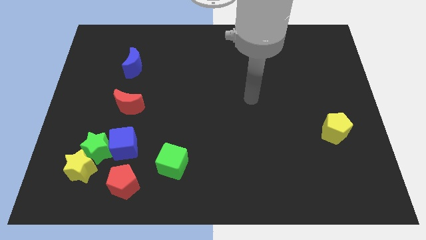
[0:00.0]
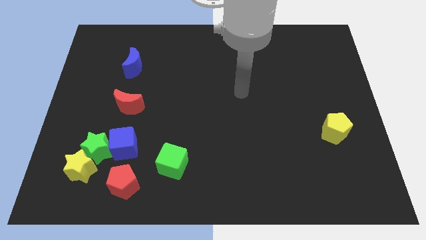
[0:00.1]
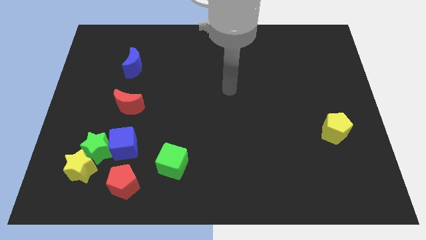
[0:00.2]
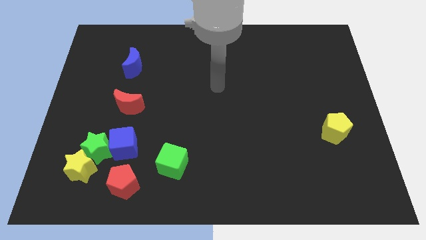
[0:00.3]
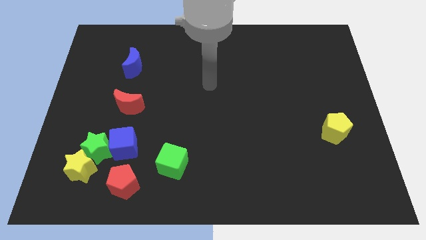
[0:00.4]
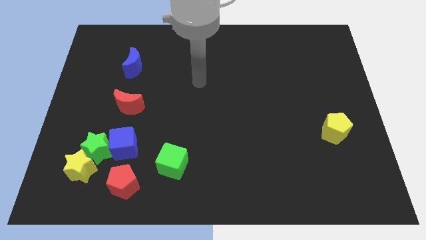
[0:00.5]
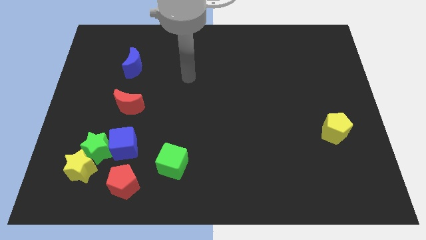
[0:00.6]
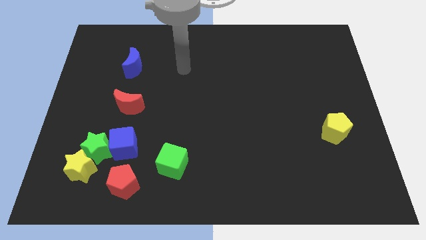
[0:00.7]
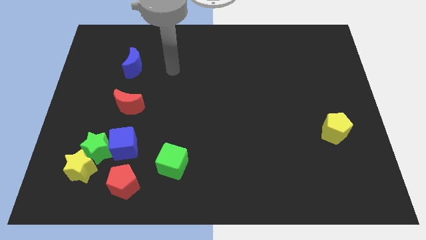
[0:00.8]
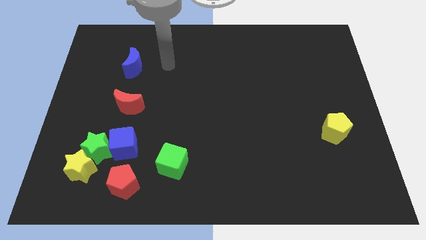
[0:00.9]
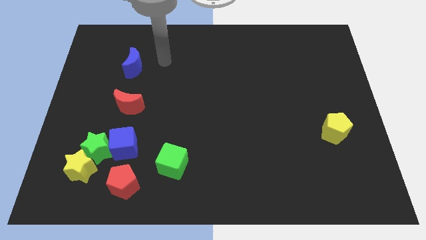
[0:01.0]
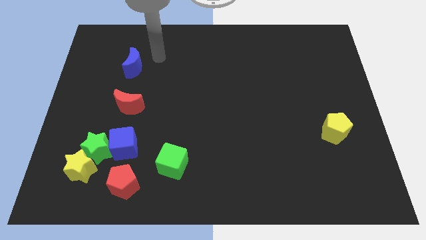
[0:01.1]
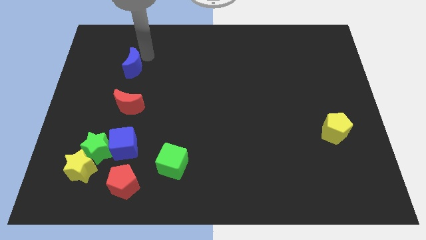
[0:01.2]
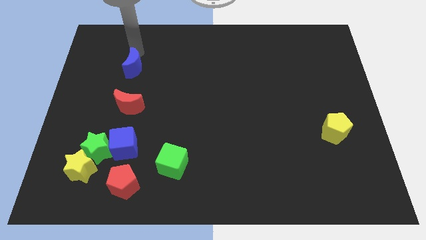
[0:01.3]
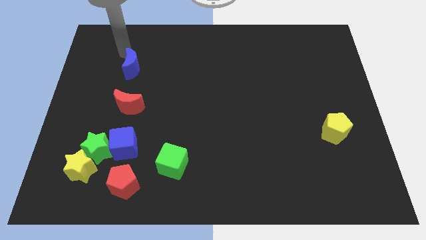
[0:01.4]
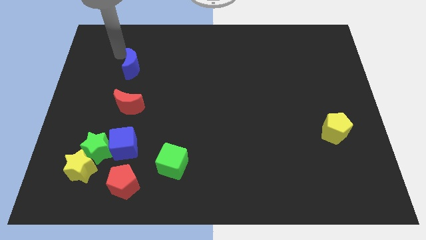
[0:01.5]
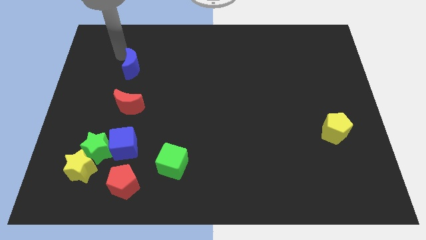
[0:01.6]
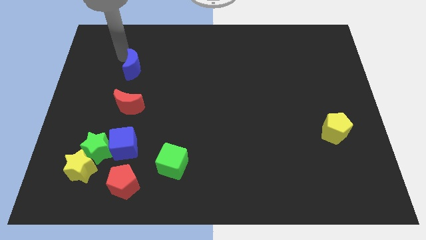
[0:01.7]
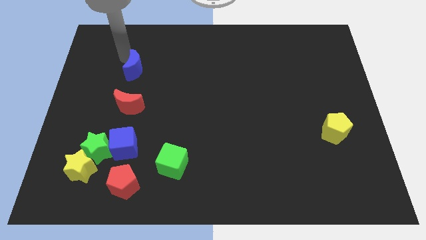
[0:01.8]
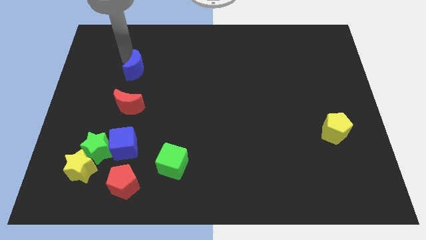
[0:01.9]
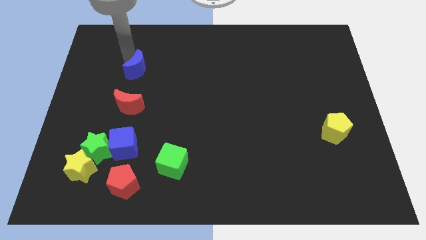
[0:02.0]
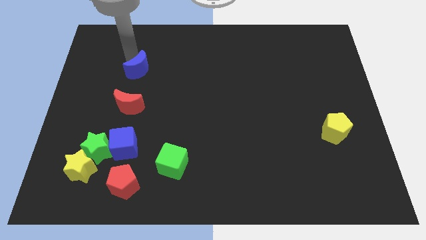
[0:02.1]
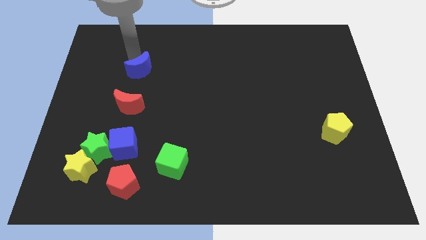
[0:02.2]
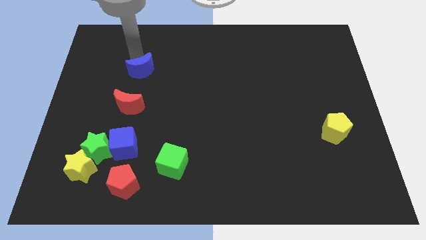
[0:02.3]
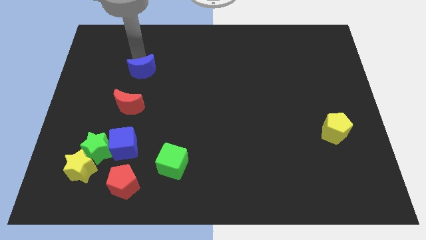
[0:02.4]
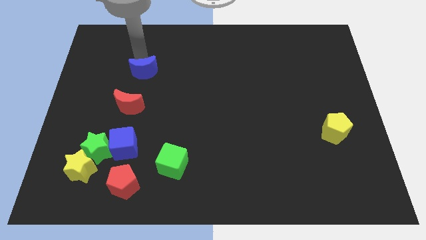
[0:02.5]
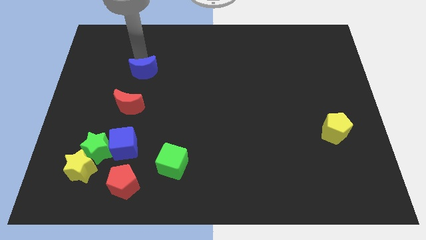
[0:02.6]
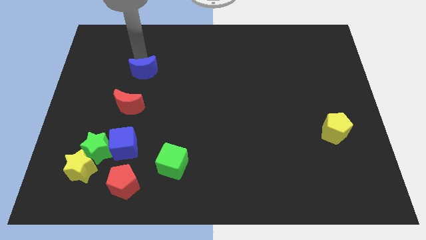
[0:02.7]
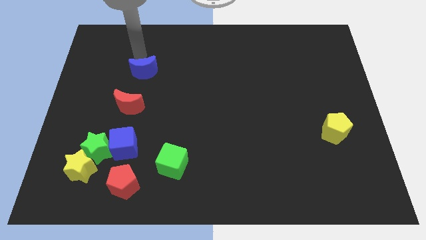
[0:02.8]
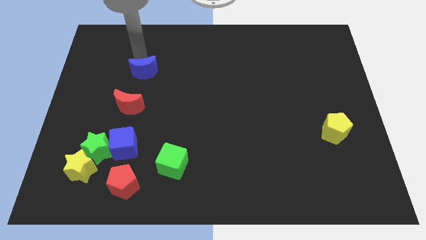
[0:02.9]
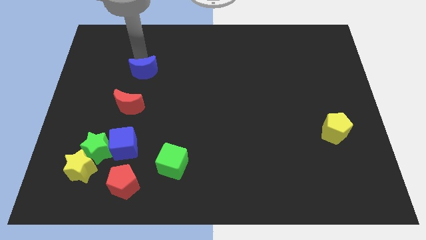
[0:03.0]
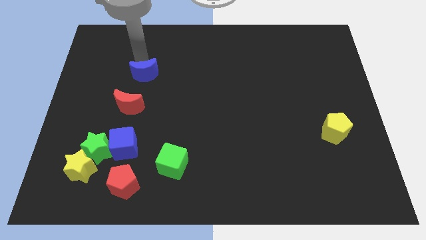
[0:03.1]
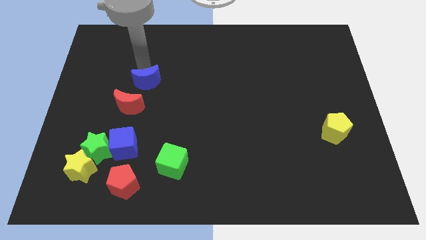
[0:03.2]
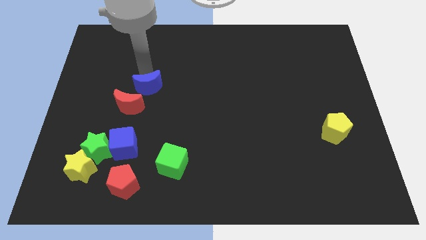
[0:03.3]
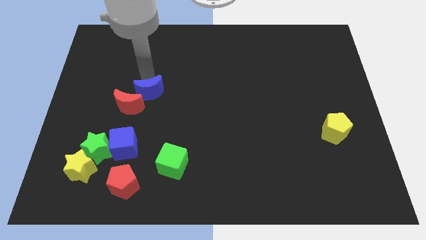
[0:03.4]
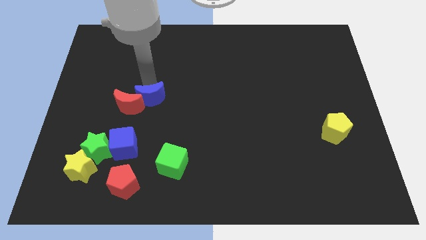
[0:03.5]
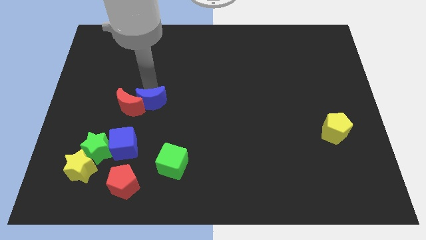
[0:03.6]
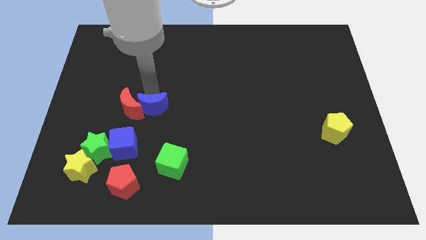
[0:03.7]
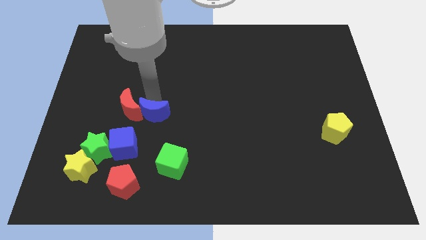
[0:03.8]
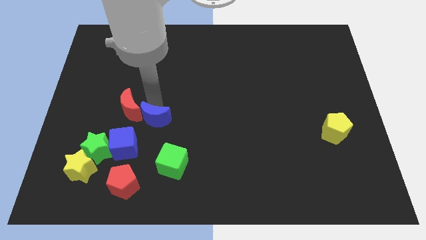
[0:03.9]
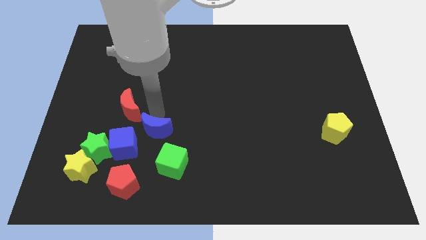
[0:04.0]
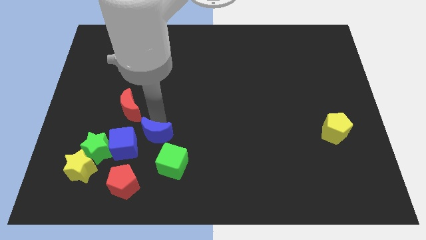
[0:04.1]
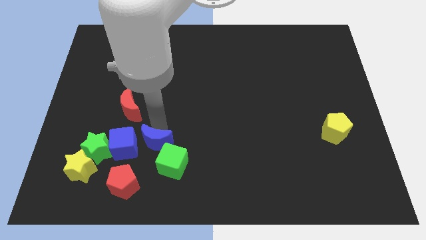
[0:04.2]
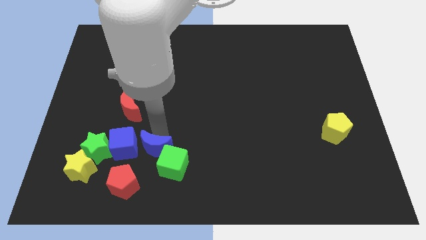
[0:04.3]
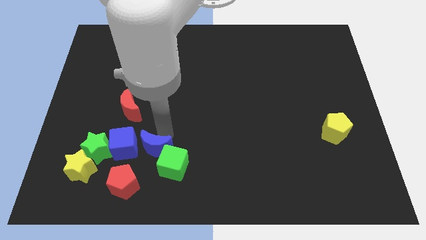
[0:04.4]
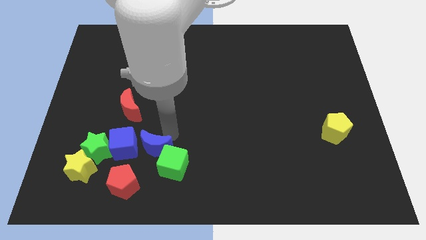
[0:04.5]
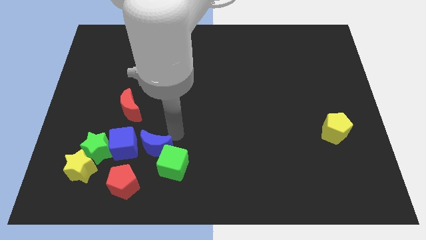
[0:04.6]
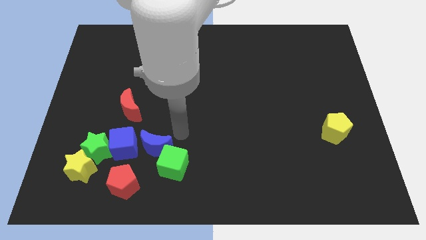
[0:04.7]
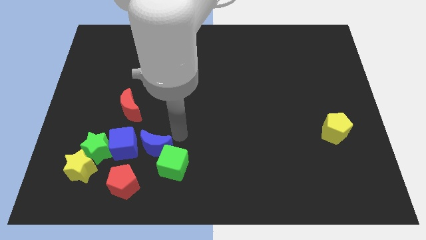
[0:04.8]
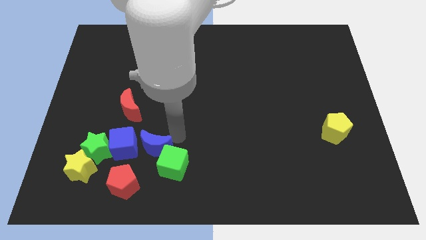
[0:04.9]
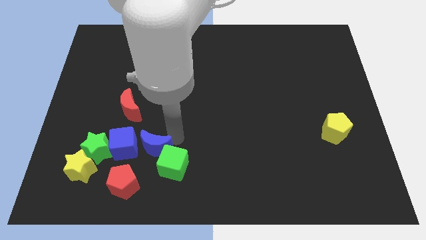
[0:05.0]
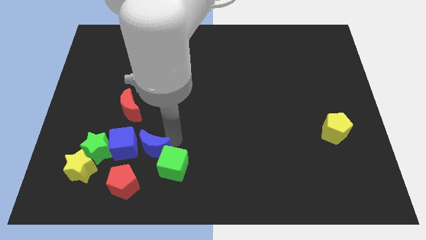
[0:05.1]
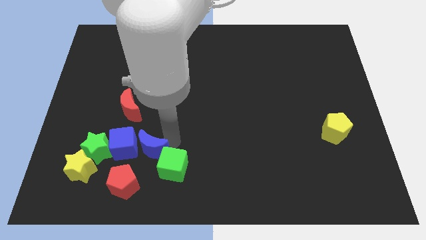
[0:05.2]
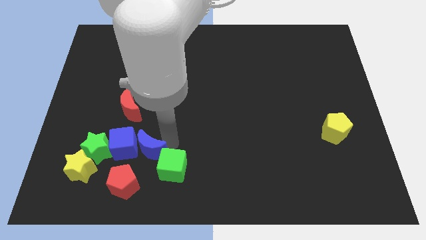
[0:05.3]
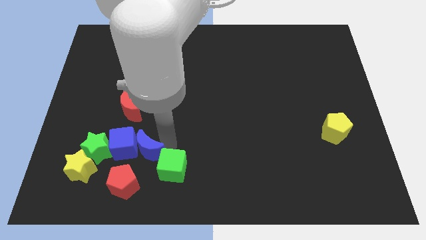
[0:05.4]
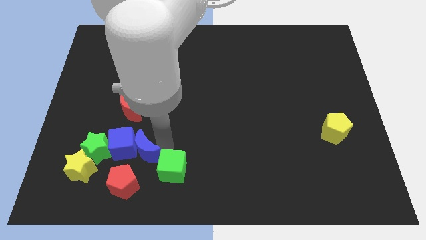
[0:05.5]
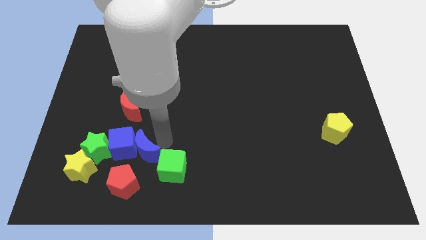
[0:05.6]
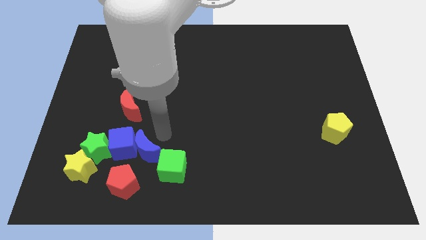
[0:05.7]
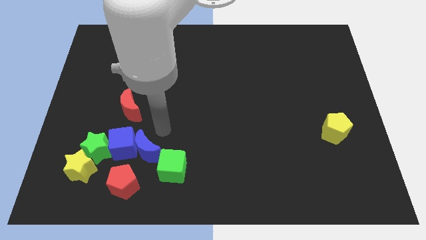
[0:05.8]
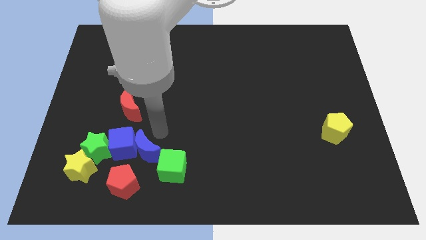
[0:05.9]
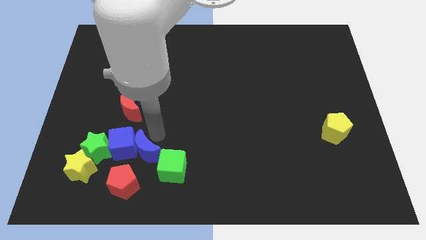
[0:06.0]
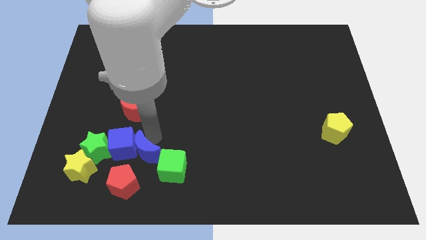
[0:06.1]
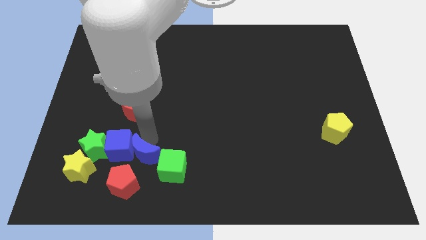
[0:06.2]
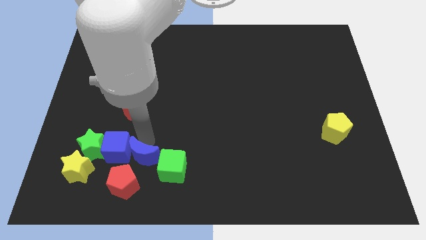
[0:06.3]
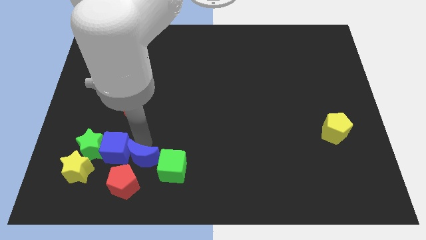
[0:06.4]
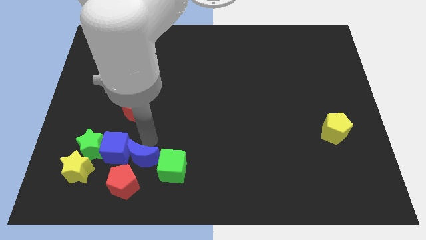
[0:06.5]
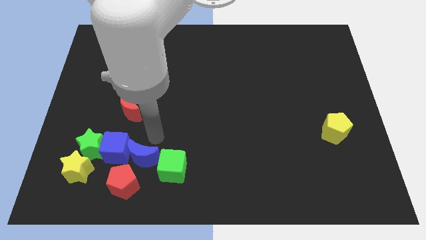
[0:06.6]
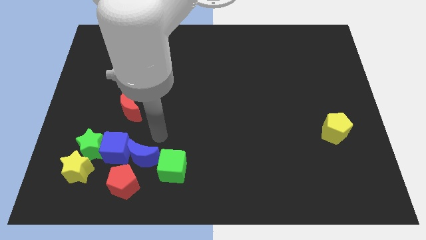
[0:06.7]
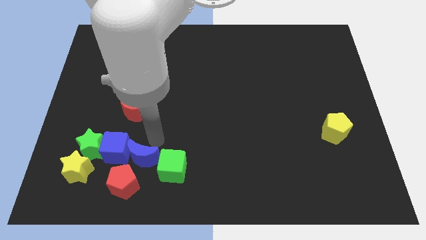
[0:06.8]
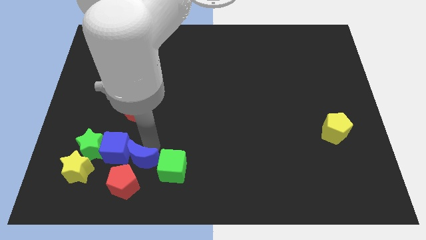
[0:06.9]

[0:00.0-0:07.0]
slide the blue moon next to the red pentagon

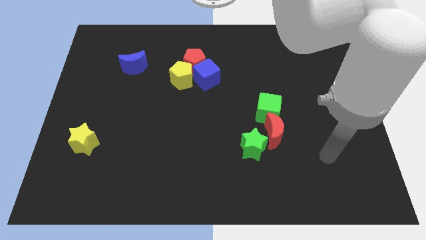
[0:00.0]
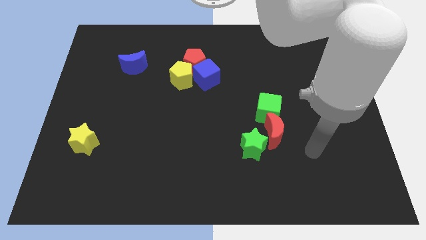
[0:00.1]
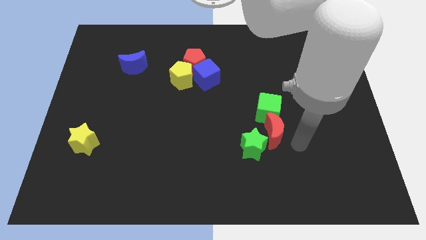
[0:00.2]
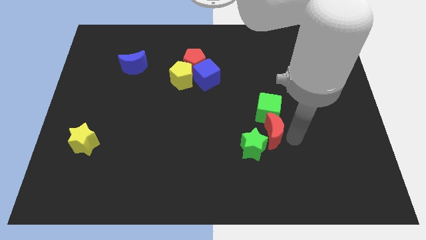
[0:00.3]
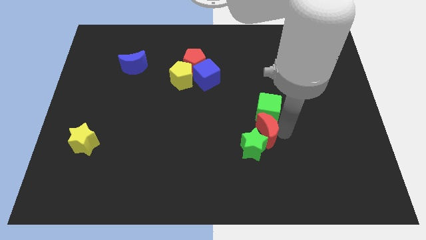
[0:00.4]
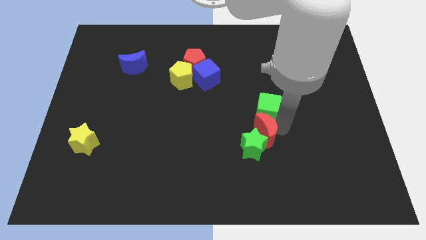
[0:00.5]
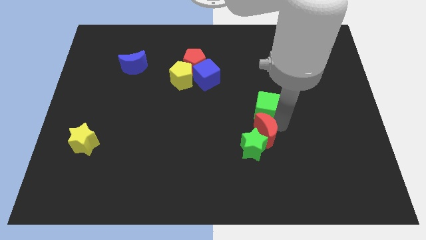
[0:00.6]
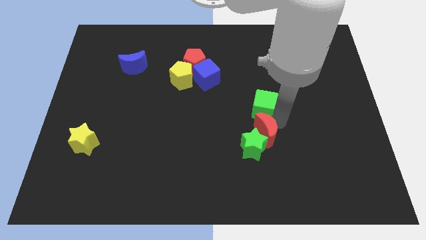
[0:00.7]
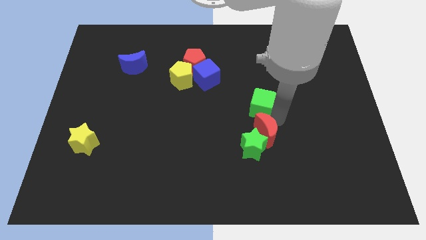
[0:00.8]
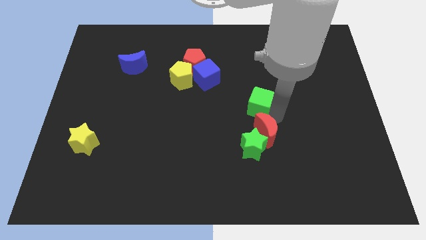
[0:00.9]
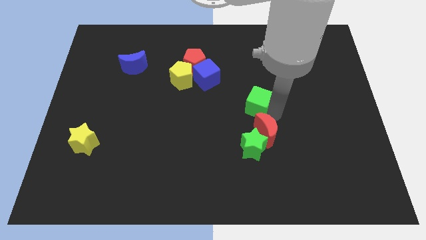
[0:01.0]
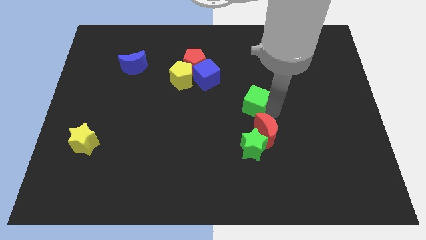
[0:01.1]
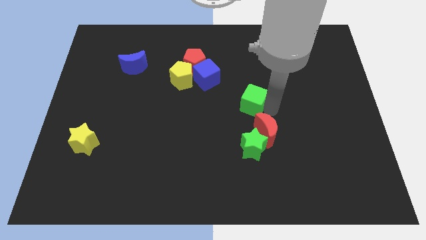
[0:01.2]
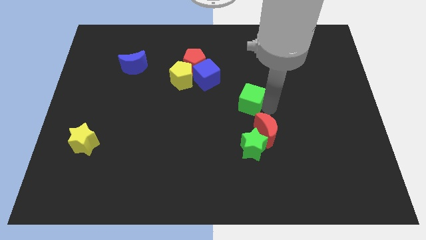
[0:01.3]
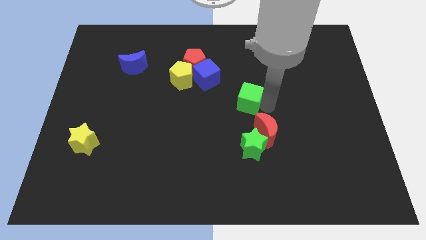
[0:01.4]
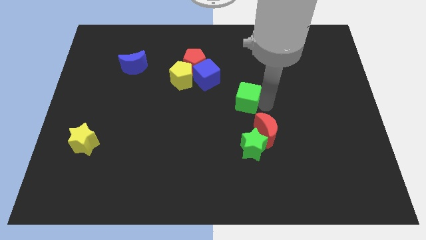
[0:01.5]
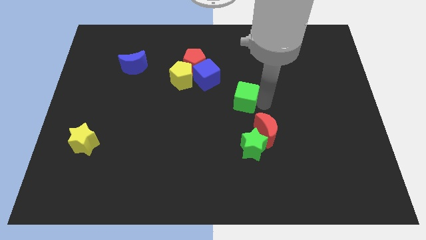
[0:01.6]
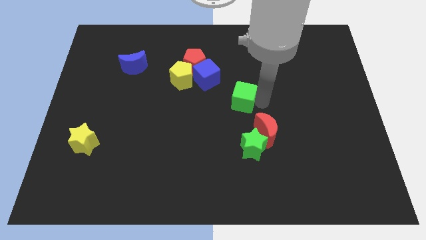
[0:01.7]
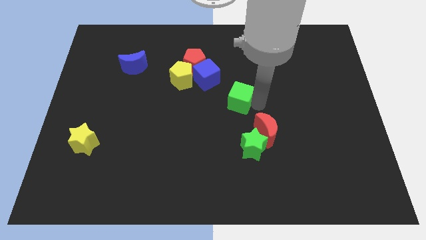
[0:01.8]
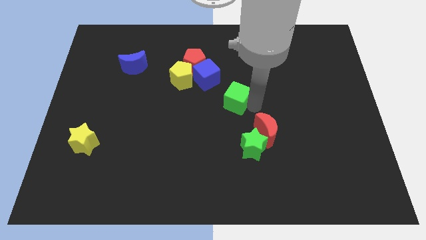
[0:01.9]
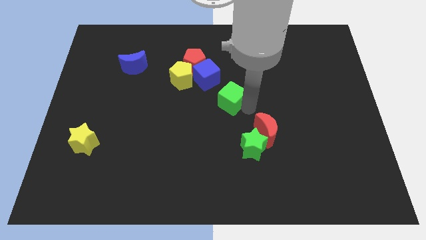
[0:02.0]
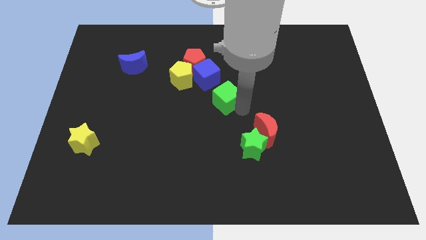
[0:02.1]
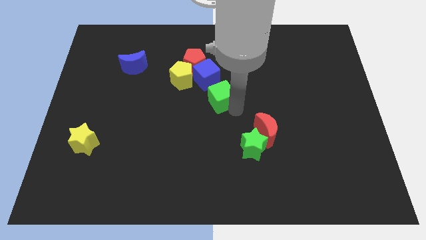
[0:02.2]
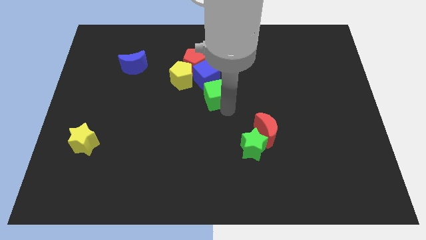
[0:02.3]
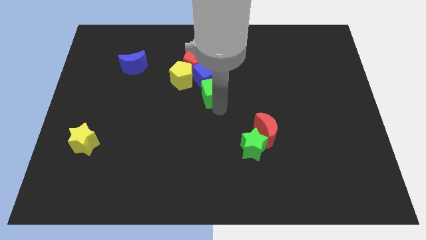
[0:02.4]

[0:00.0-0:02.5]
push the green cube next to the blue cube
